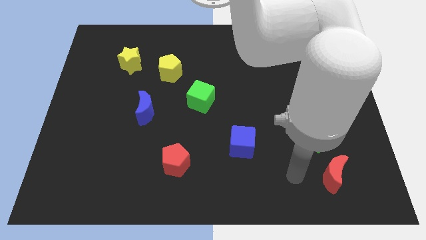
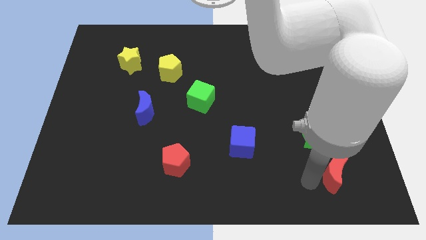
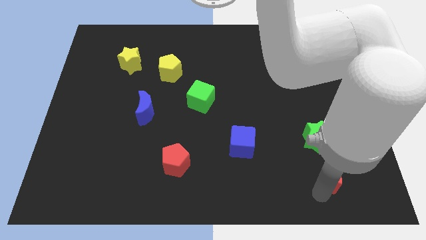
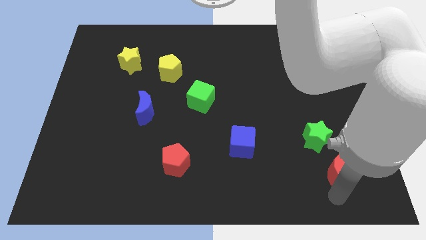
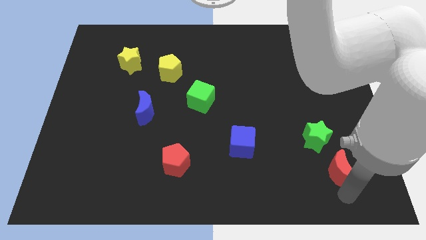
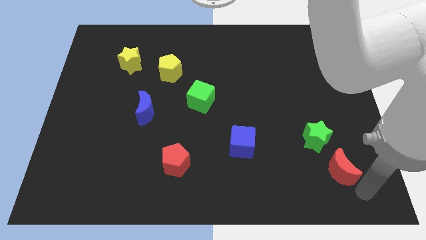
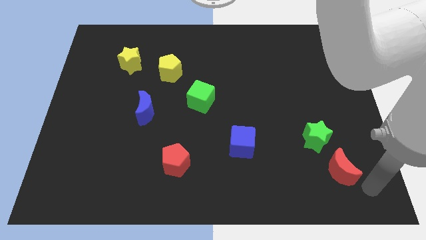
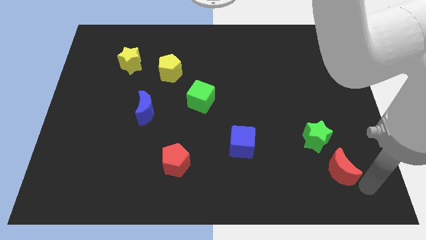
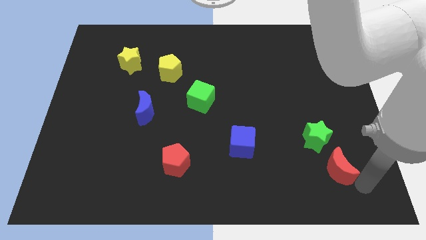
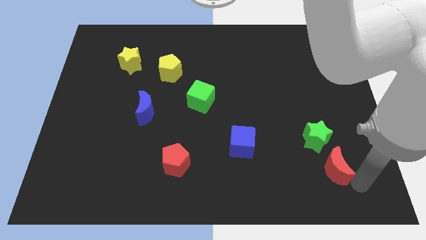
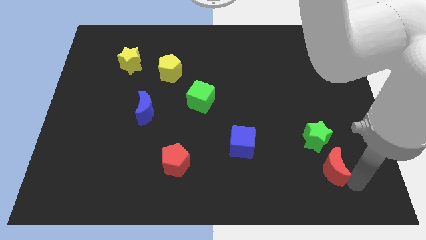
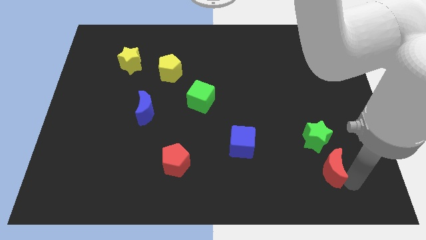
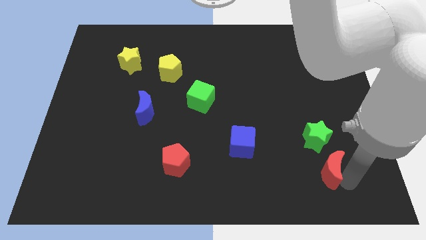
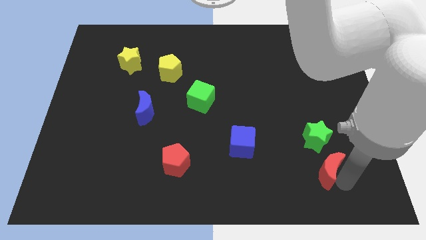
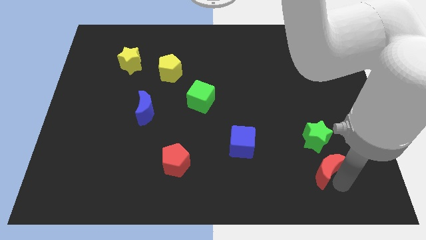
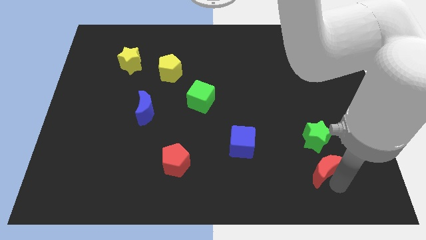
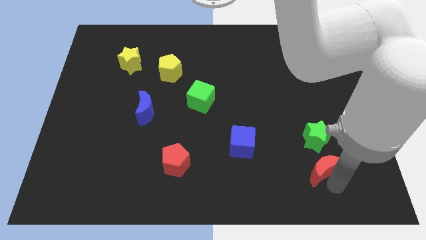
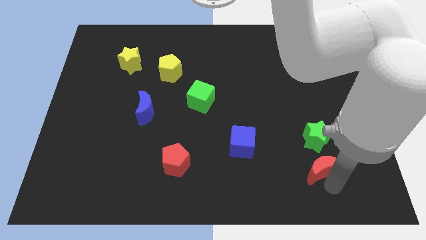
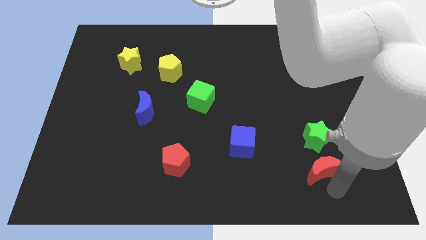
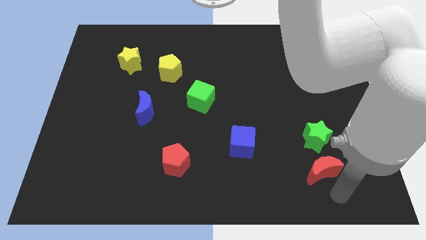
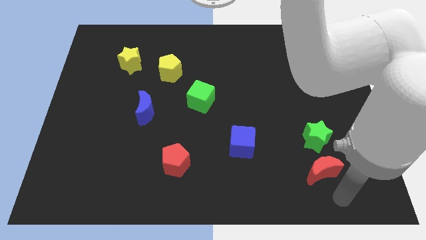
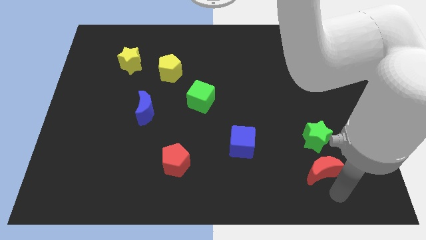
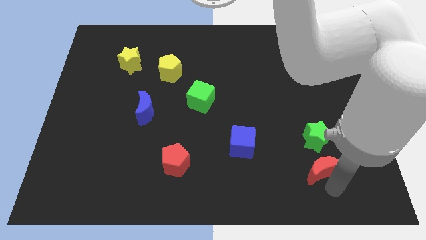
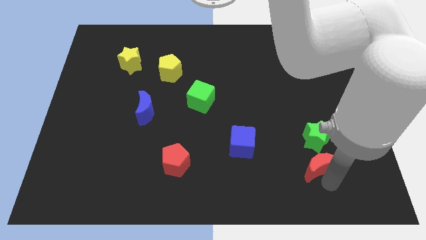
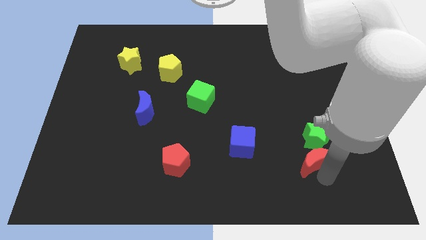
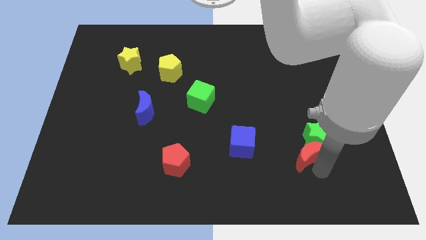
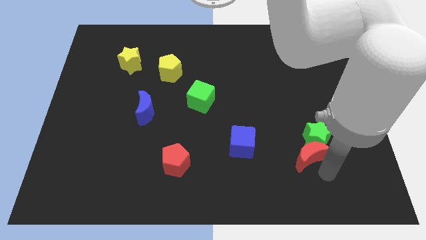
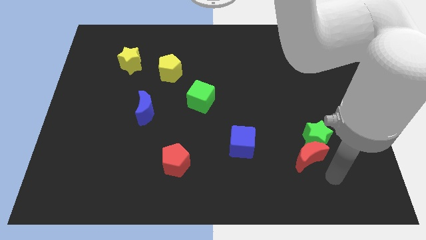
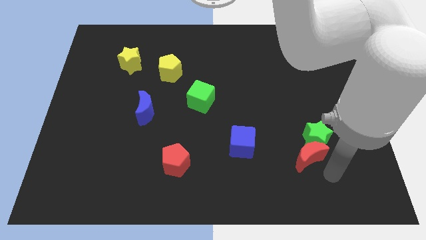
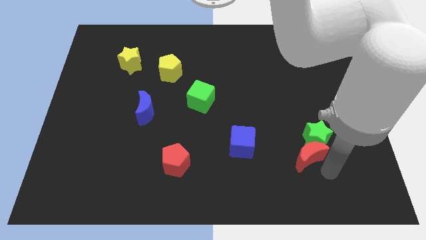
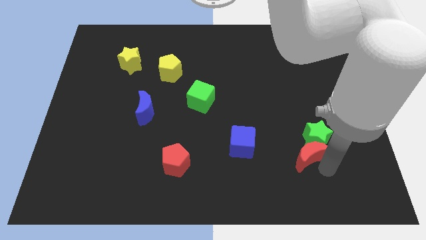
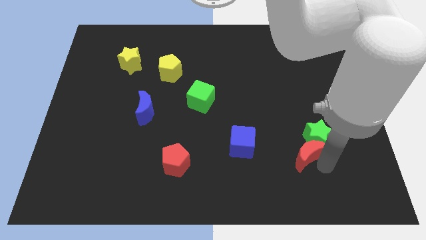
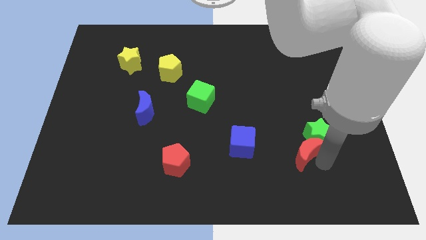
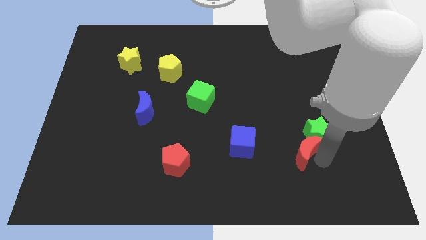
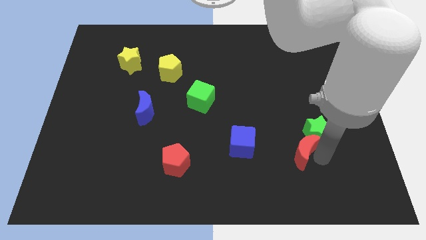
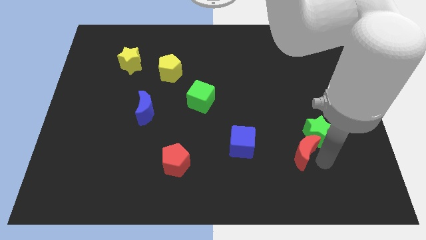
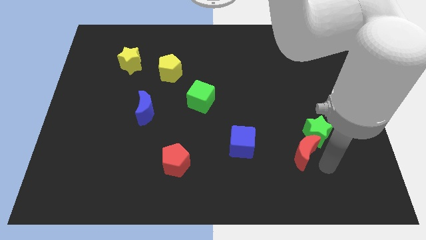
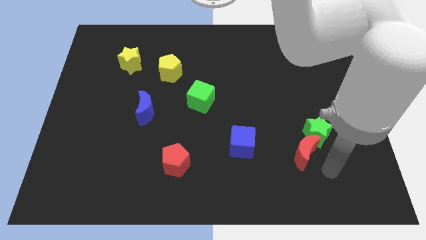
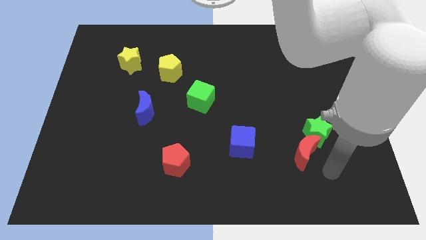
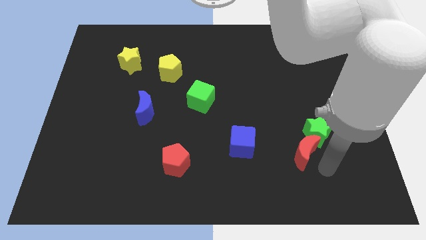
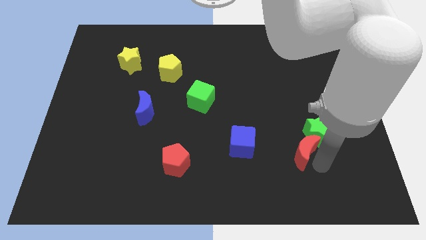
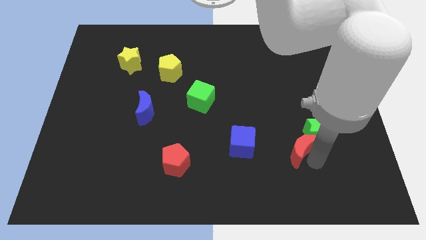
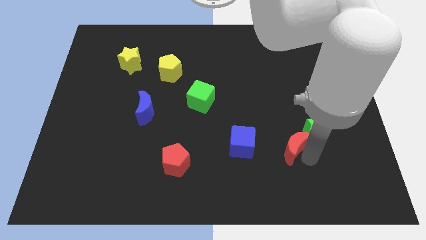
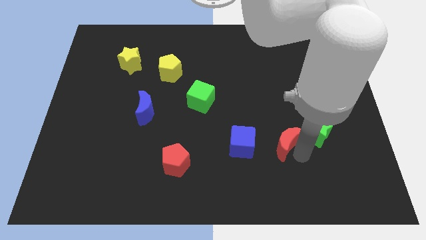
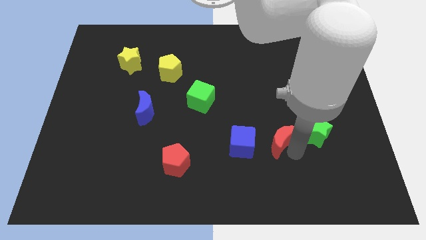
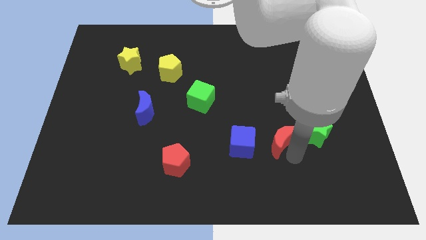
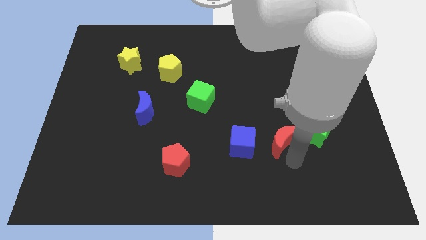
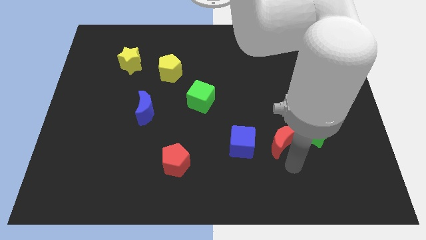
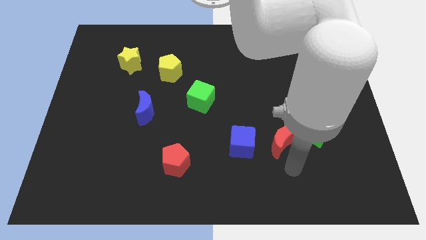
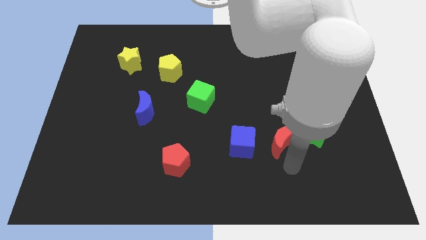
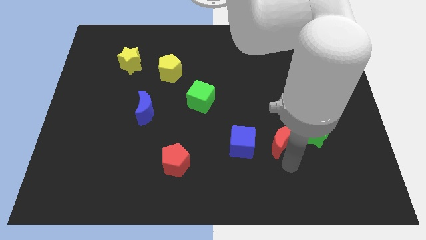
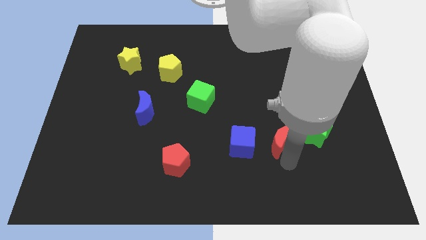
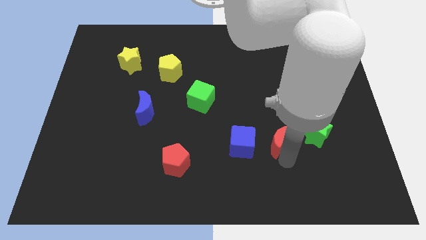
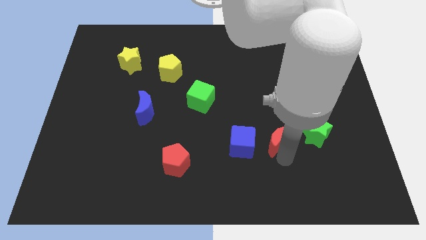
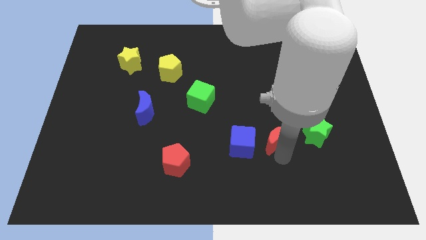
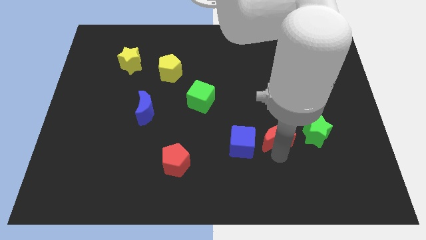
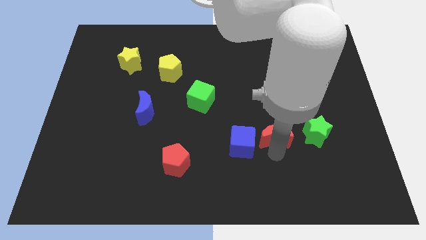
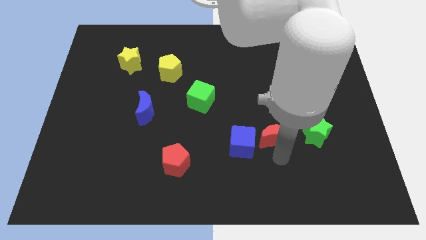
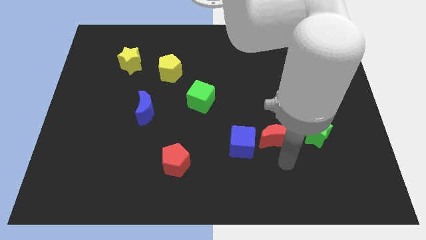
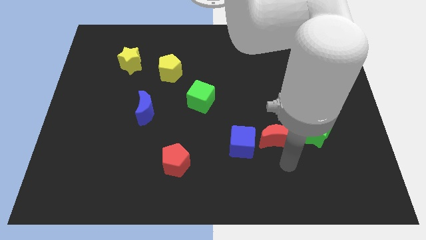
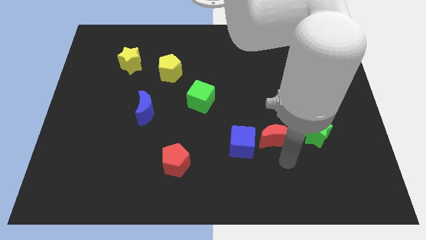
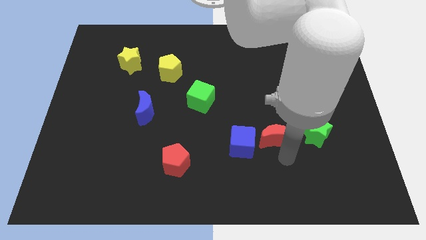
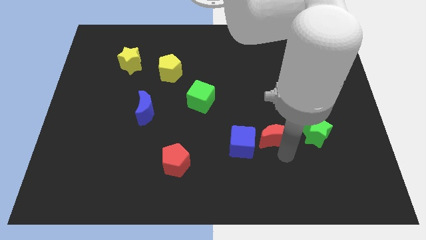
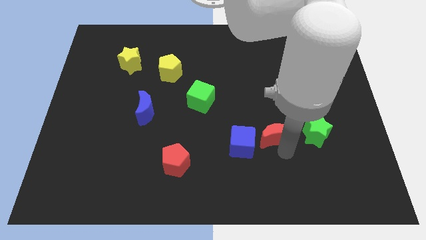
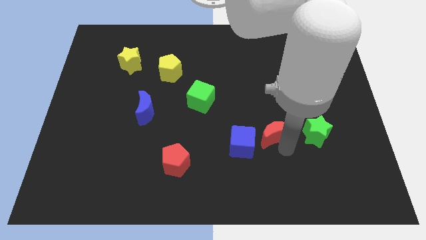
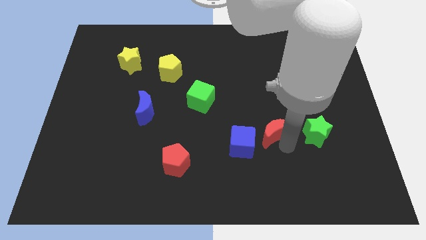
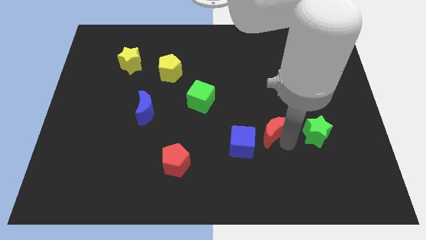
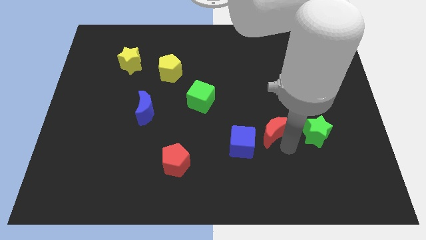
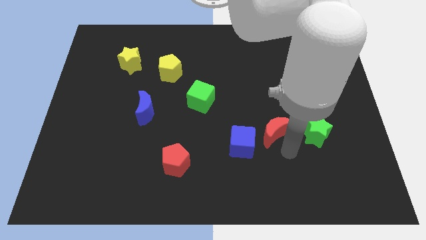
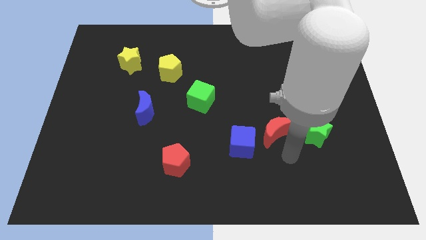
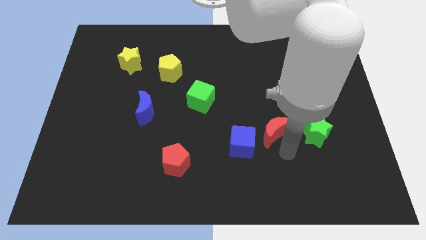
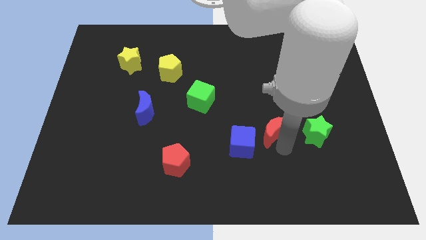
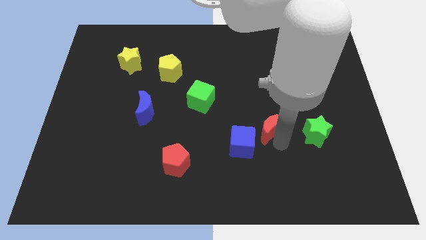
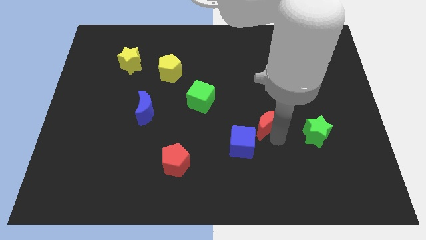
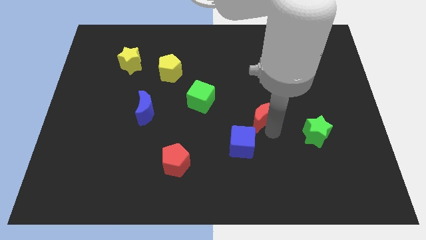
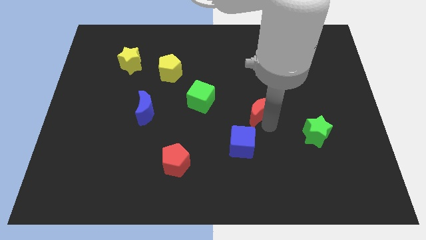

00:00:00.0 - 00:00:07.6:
push the red moon right of the green cube
